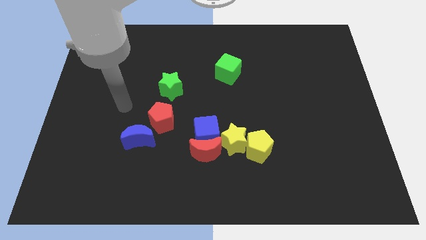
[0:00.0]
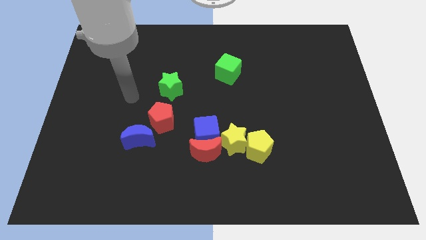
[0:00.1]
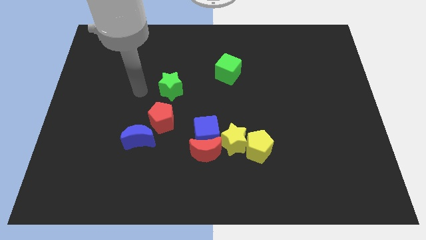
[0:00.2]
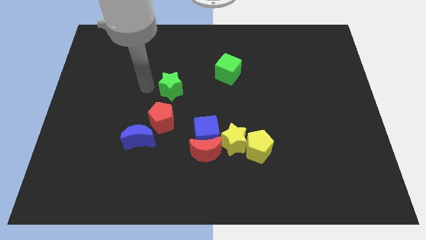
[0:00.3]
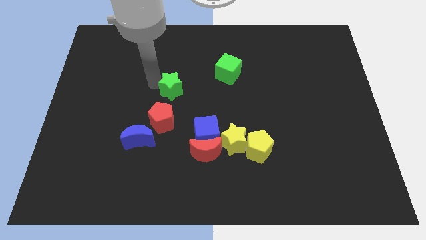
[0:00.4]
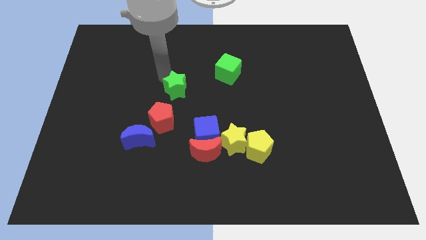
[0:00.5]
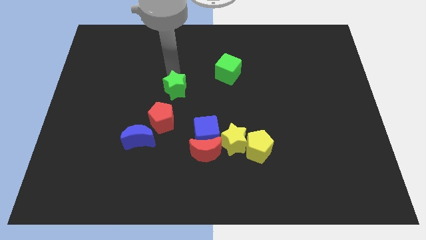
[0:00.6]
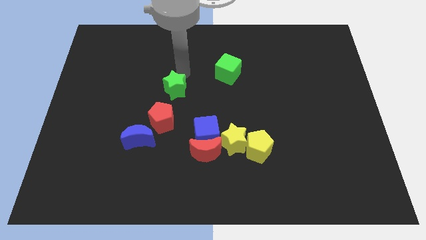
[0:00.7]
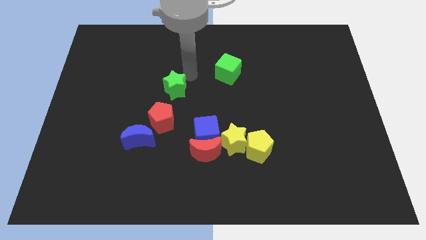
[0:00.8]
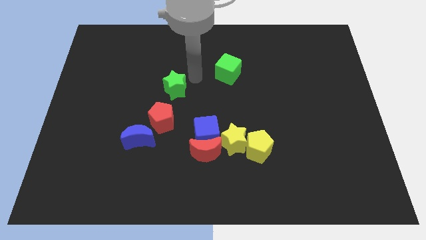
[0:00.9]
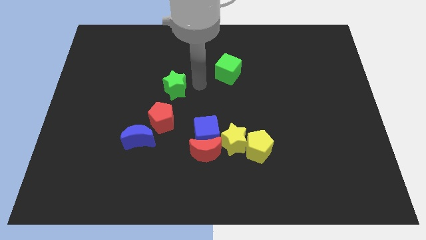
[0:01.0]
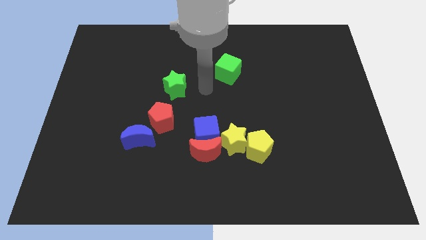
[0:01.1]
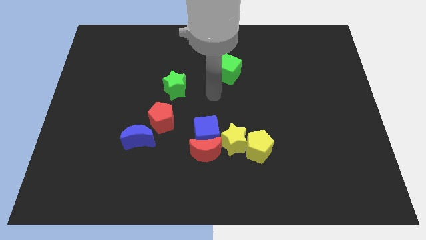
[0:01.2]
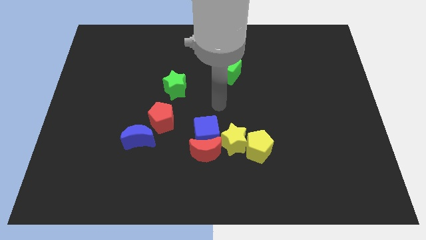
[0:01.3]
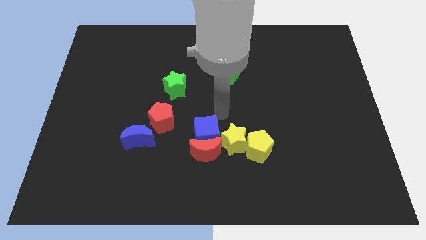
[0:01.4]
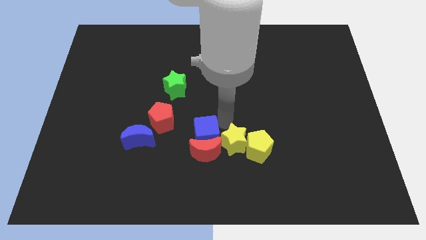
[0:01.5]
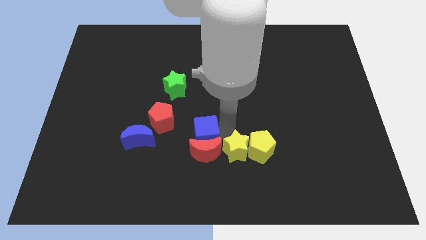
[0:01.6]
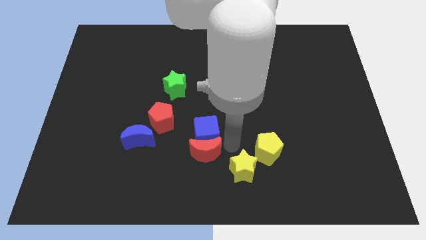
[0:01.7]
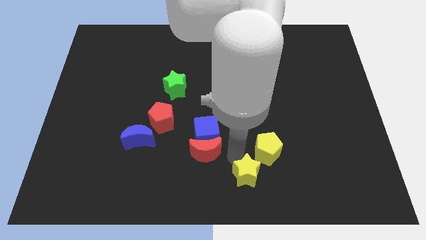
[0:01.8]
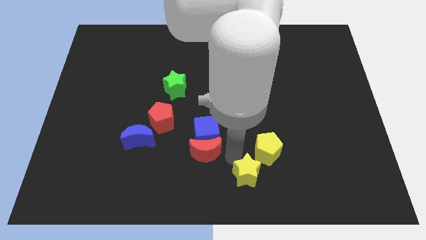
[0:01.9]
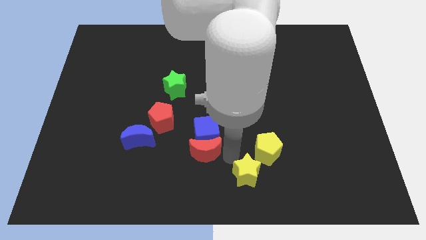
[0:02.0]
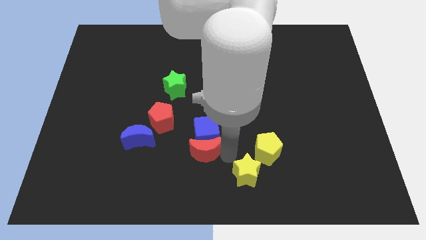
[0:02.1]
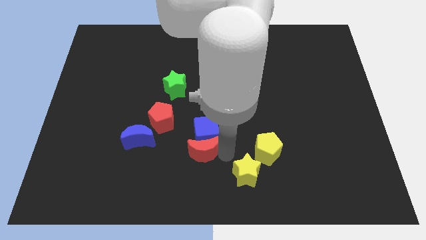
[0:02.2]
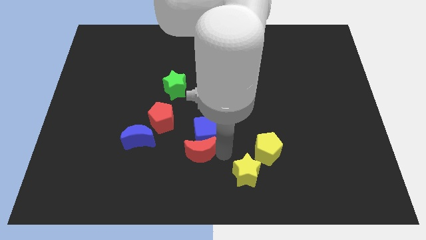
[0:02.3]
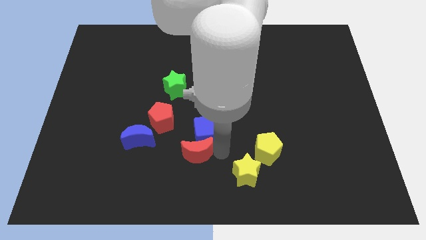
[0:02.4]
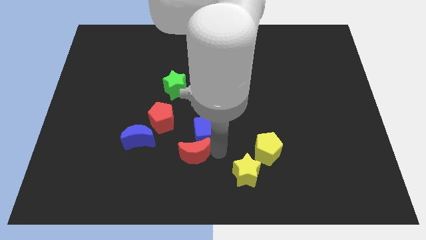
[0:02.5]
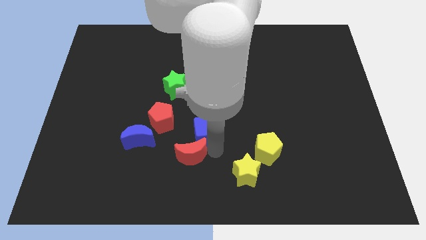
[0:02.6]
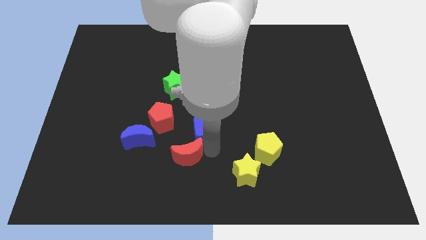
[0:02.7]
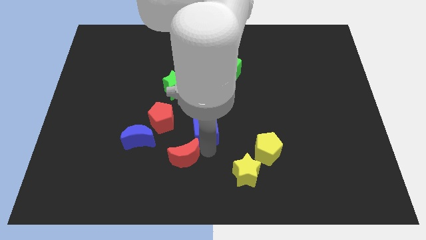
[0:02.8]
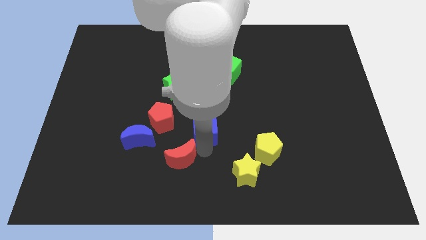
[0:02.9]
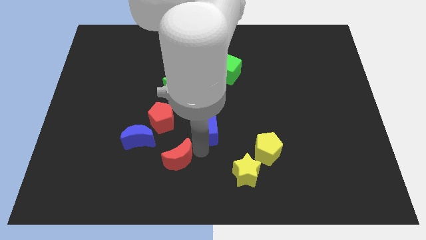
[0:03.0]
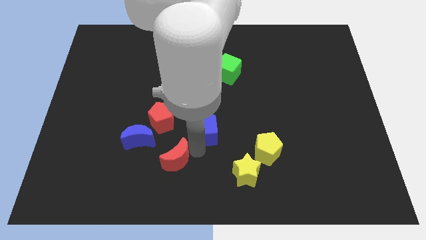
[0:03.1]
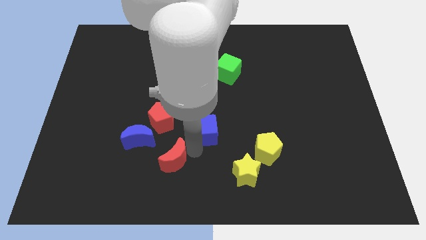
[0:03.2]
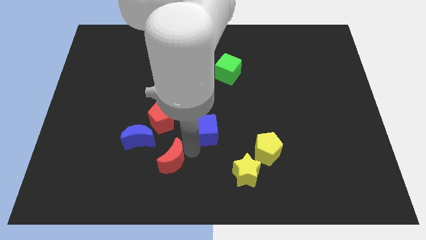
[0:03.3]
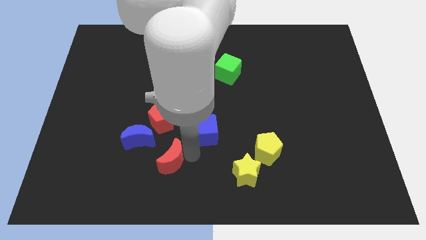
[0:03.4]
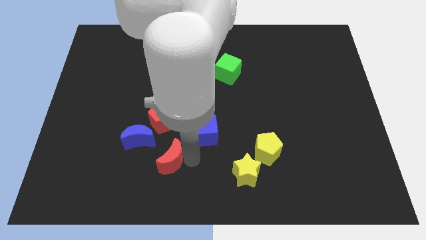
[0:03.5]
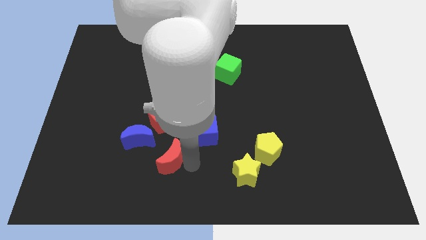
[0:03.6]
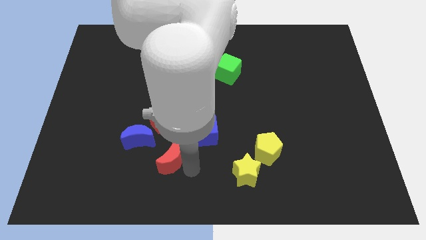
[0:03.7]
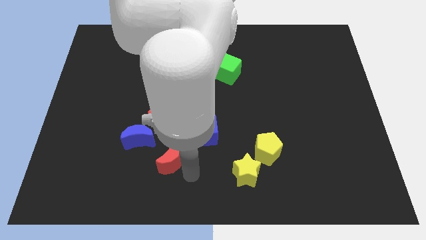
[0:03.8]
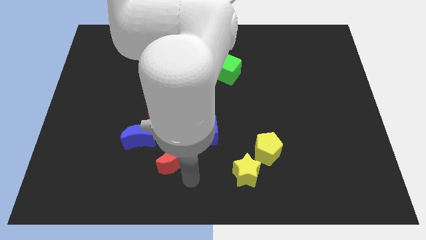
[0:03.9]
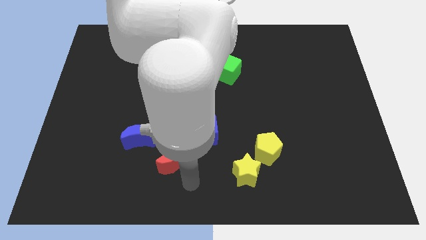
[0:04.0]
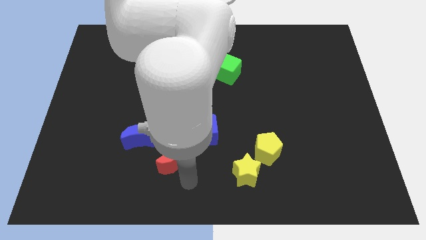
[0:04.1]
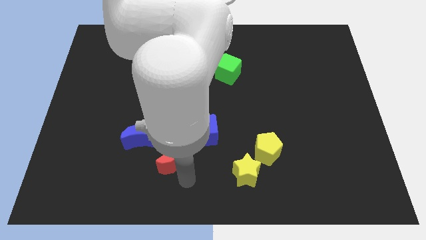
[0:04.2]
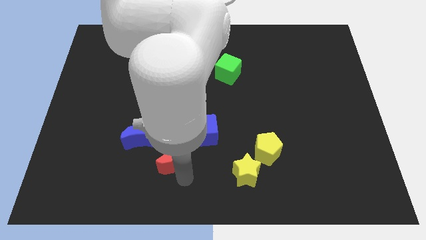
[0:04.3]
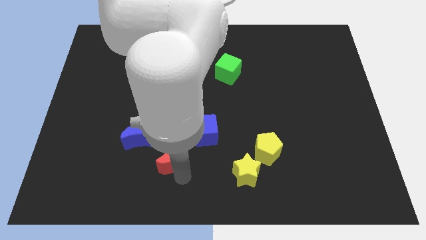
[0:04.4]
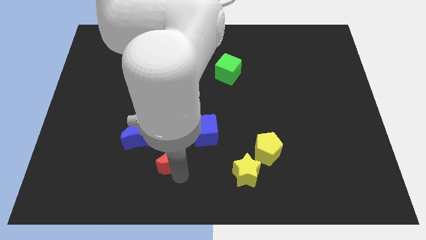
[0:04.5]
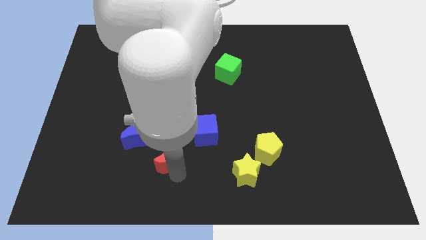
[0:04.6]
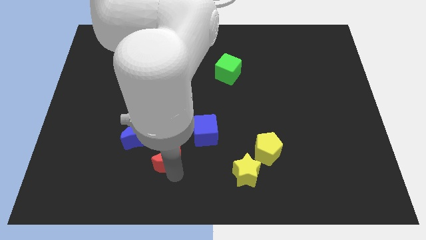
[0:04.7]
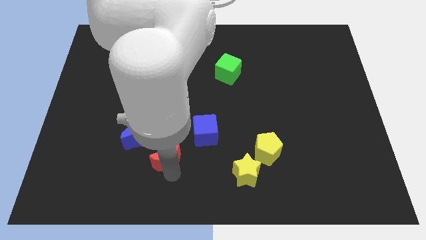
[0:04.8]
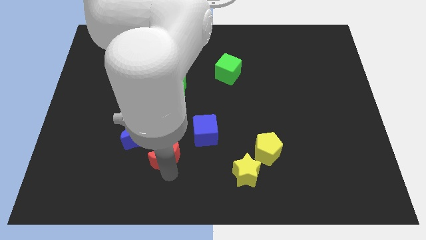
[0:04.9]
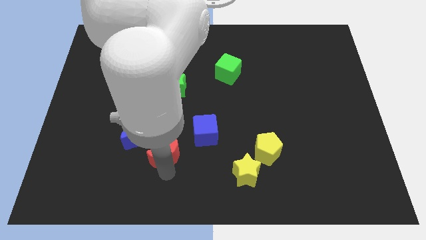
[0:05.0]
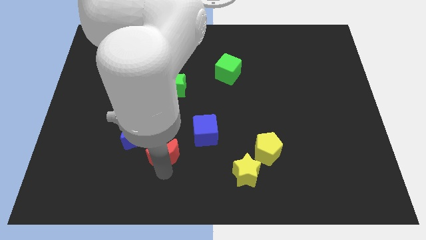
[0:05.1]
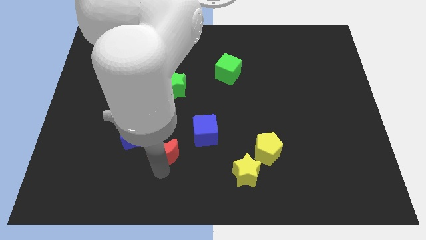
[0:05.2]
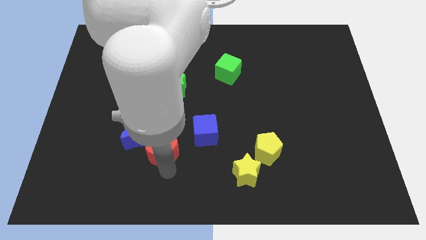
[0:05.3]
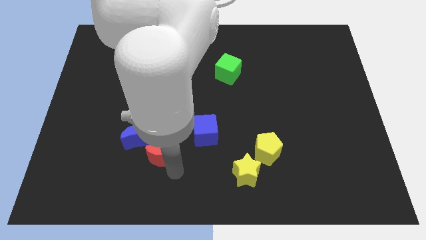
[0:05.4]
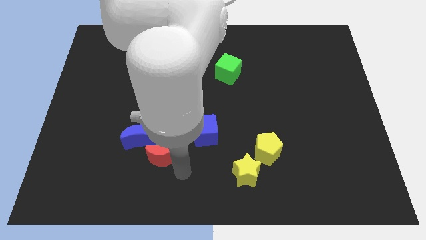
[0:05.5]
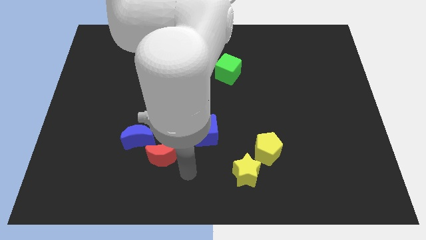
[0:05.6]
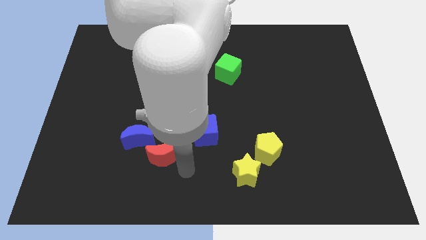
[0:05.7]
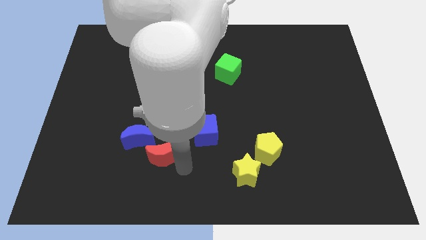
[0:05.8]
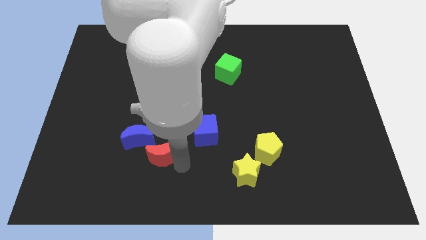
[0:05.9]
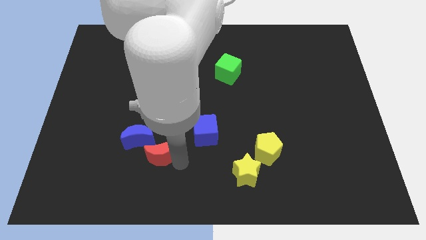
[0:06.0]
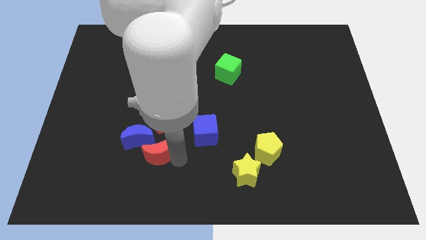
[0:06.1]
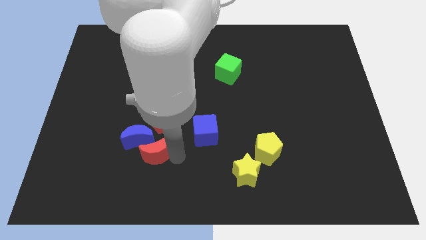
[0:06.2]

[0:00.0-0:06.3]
push the red moon close to the blue moon

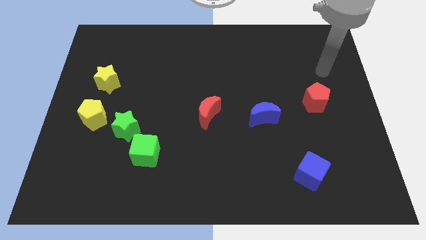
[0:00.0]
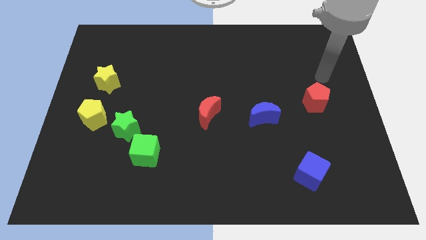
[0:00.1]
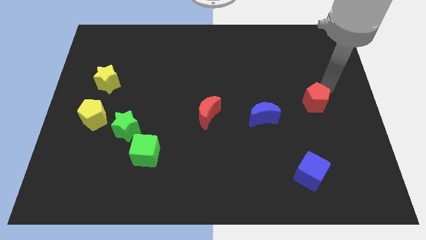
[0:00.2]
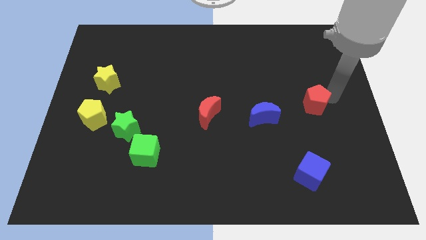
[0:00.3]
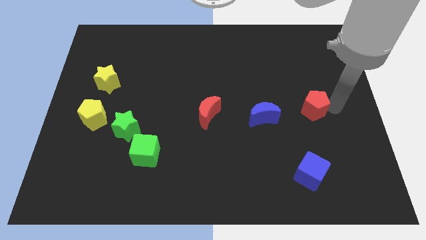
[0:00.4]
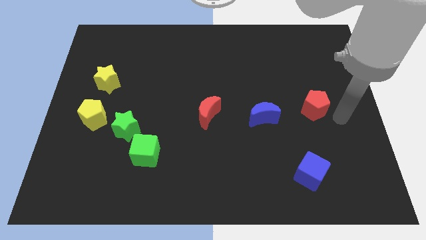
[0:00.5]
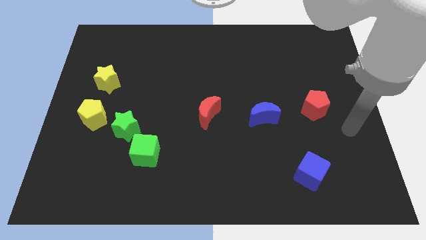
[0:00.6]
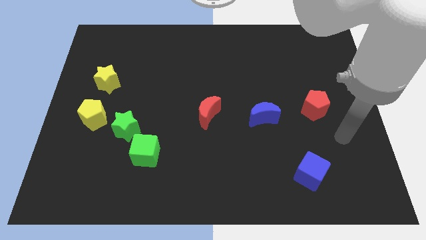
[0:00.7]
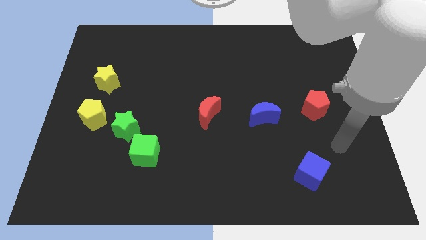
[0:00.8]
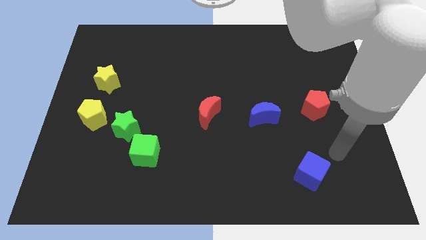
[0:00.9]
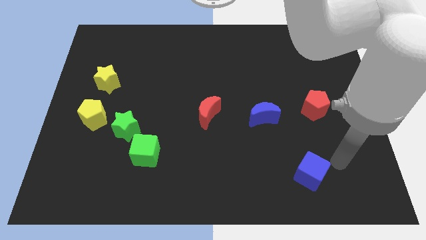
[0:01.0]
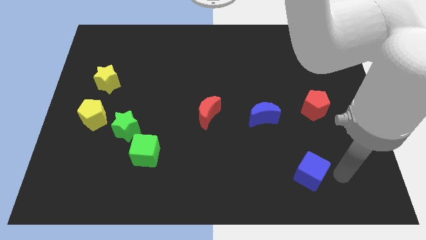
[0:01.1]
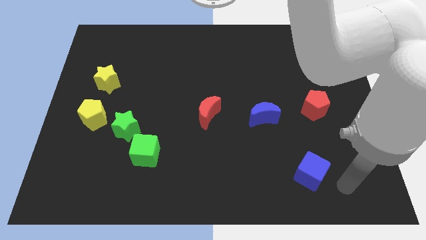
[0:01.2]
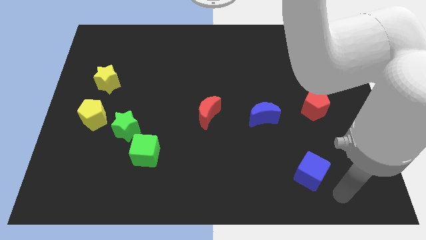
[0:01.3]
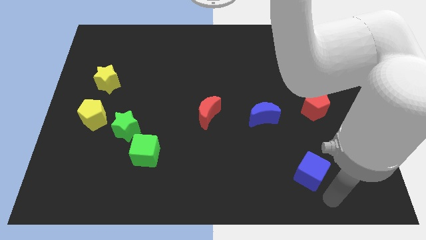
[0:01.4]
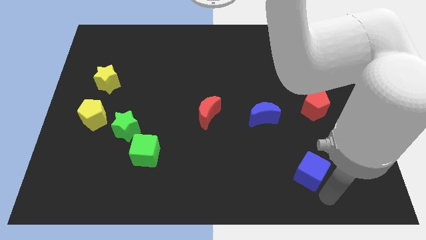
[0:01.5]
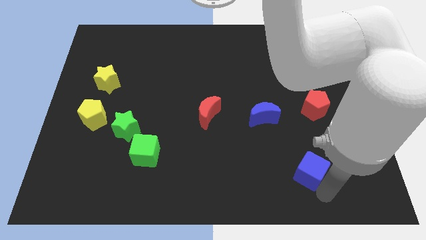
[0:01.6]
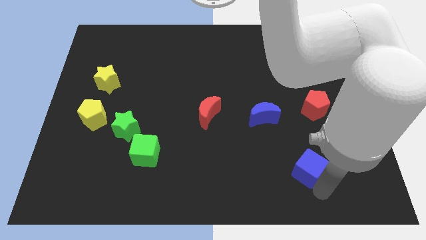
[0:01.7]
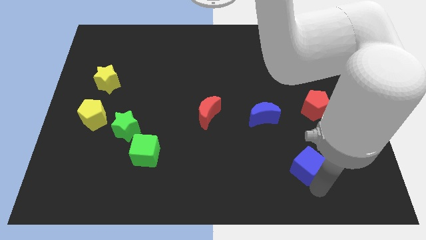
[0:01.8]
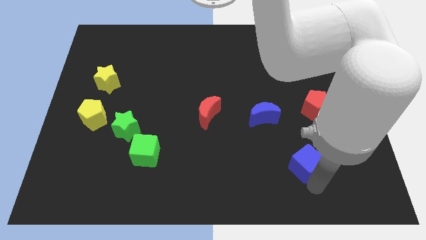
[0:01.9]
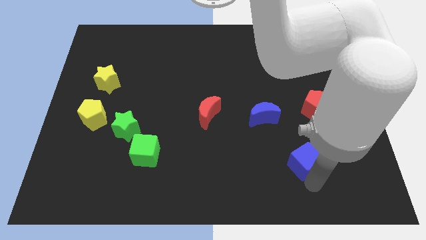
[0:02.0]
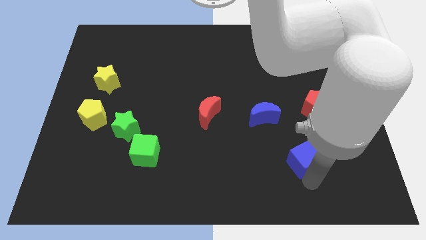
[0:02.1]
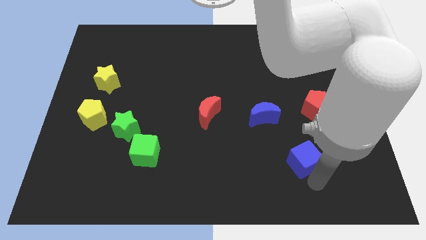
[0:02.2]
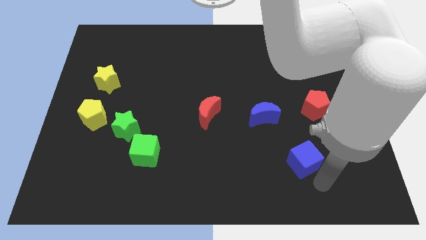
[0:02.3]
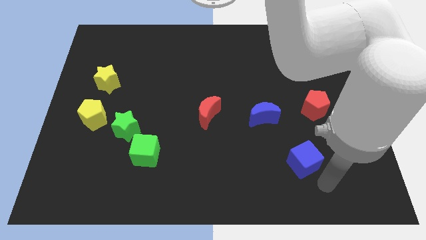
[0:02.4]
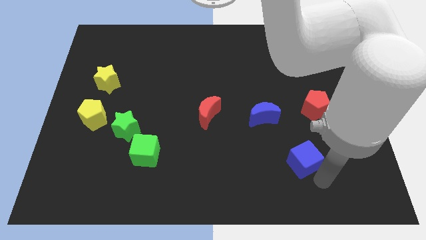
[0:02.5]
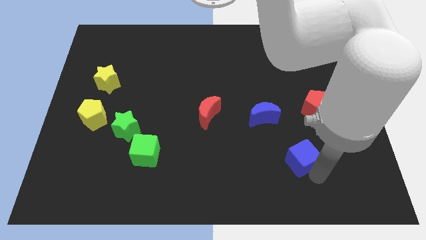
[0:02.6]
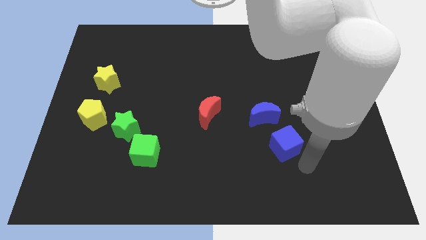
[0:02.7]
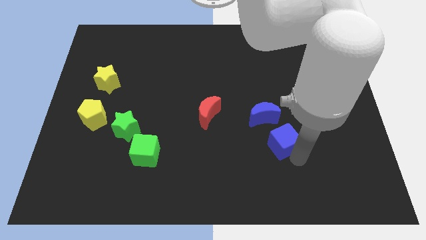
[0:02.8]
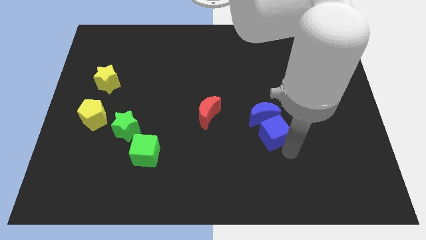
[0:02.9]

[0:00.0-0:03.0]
slide the blue cube towards the blue moon
